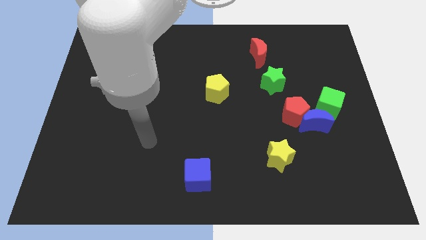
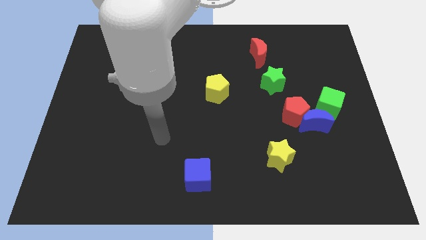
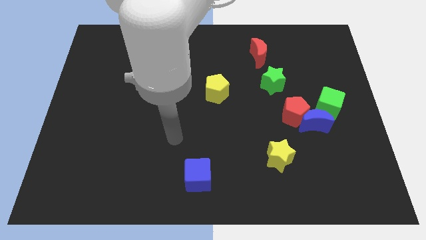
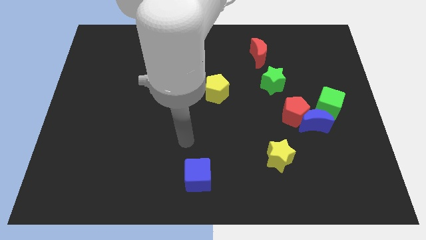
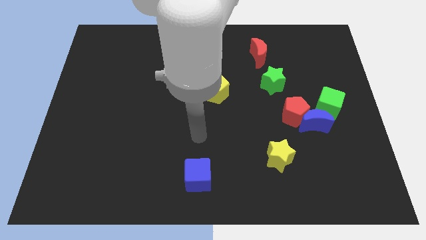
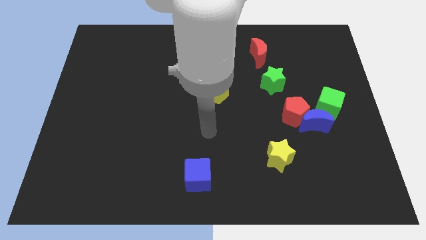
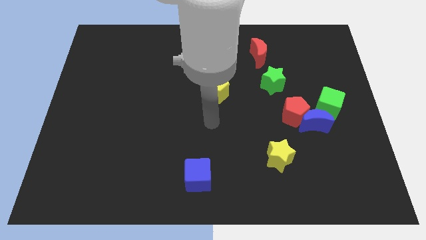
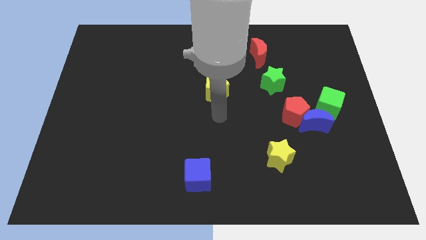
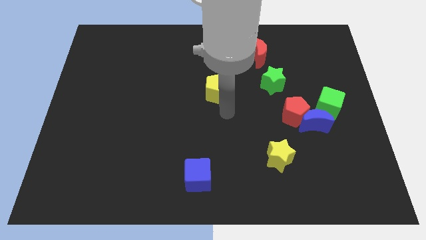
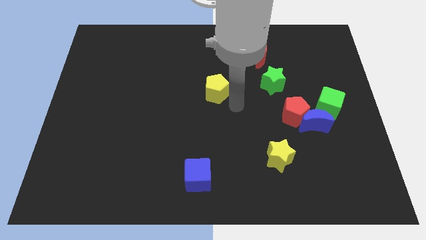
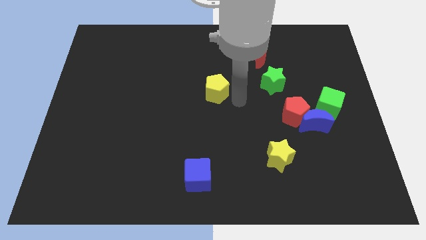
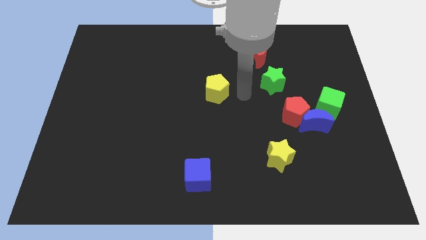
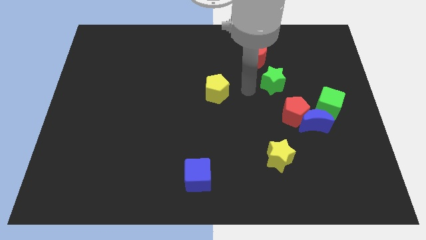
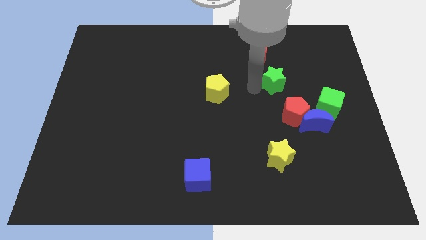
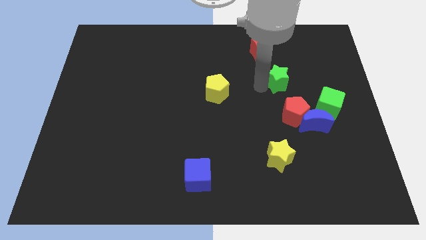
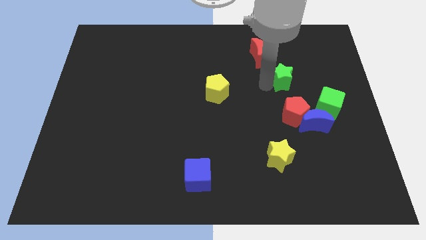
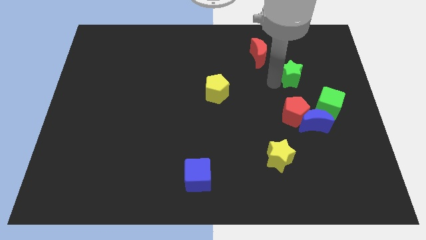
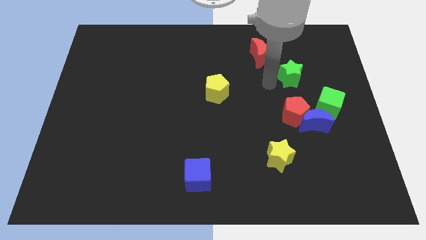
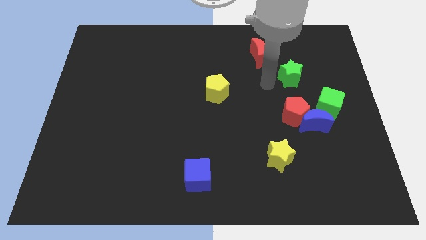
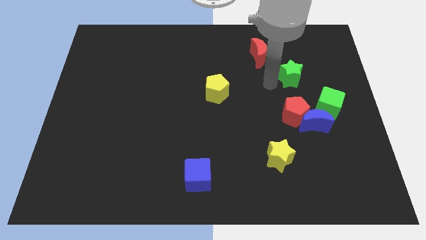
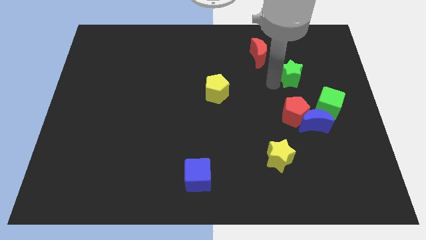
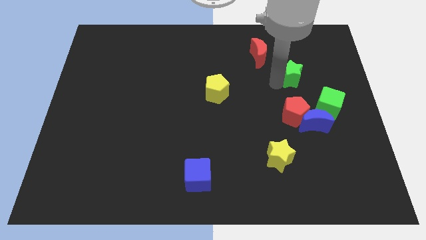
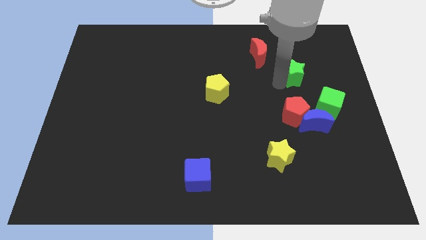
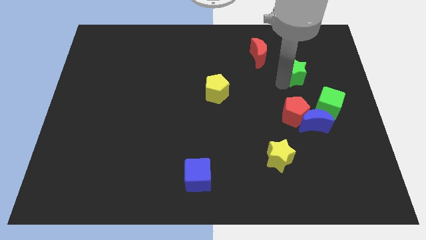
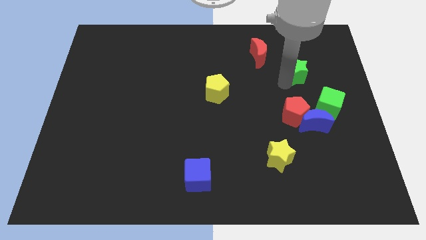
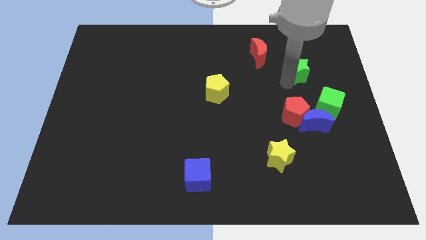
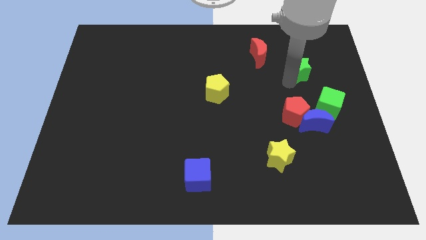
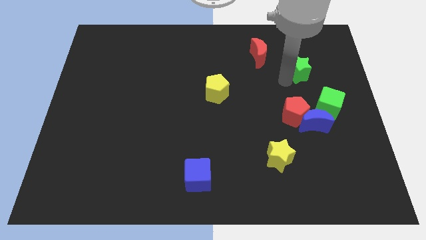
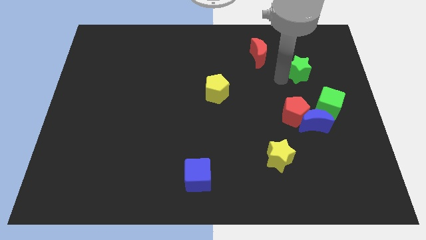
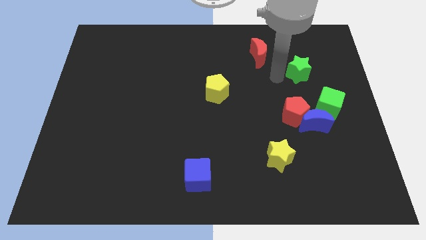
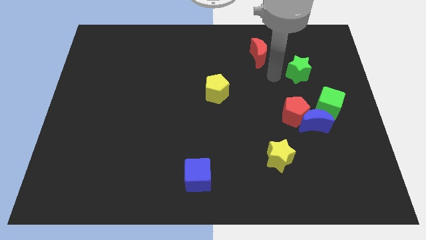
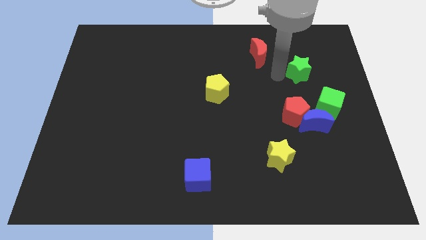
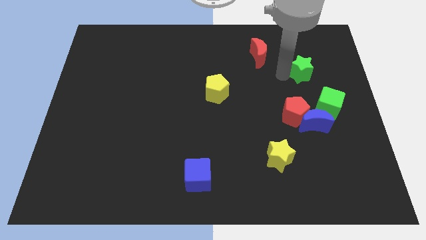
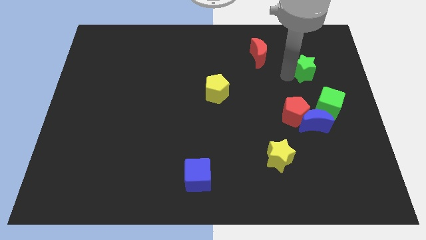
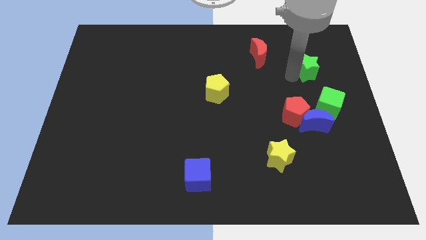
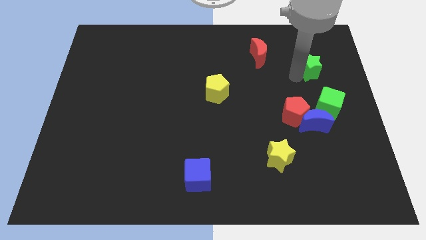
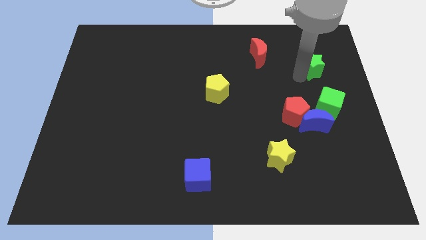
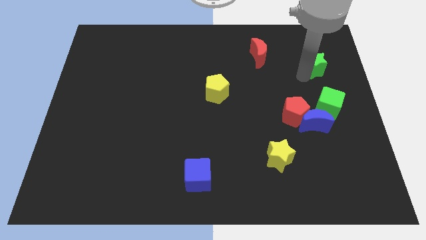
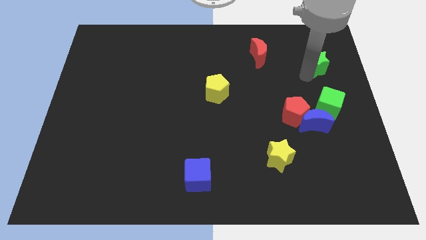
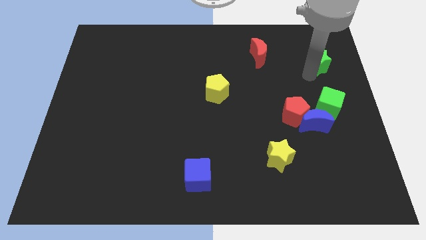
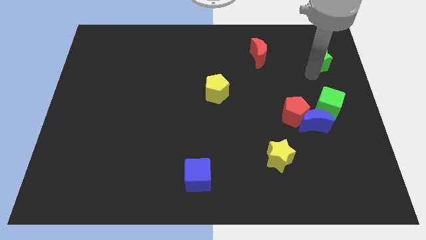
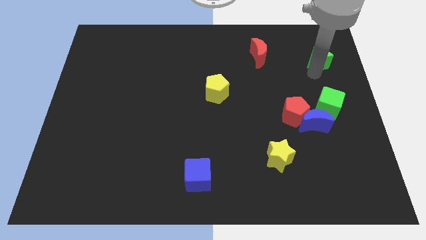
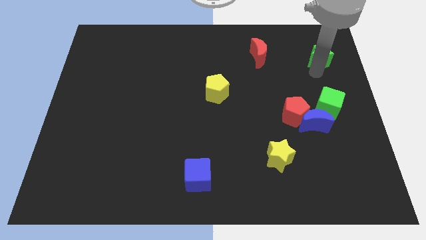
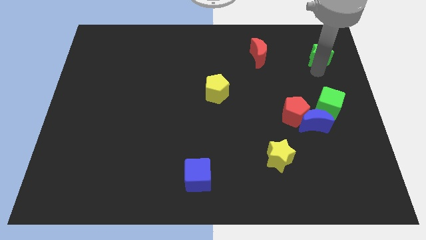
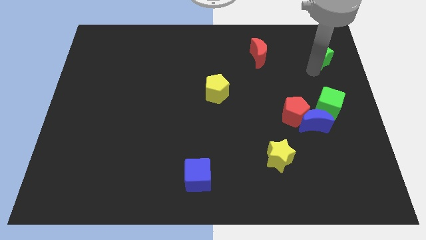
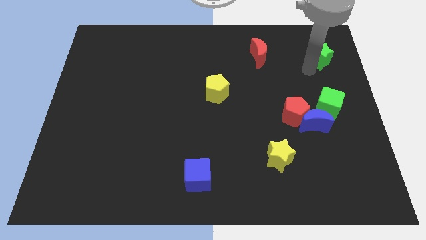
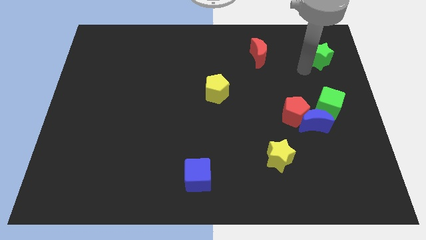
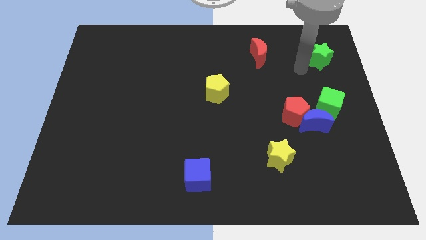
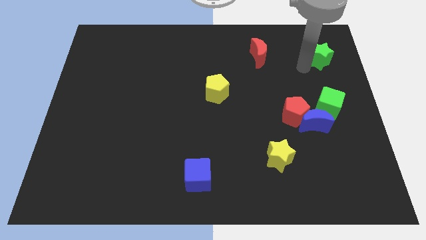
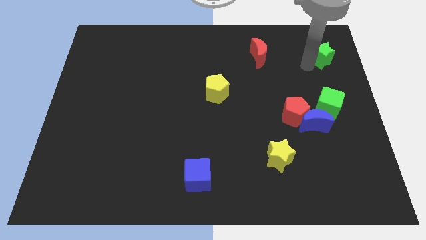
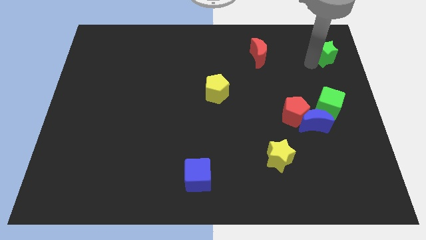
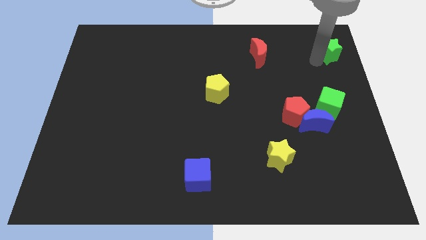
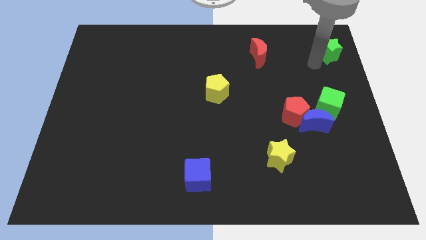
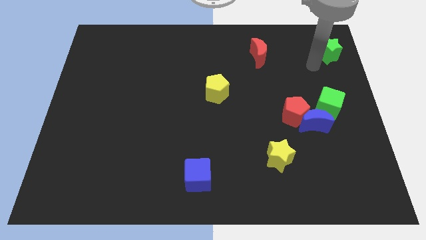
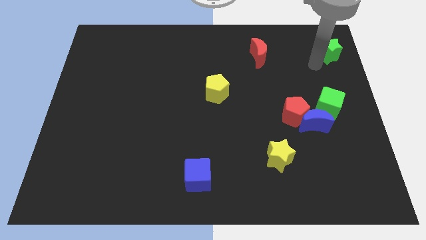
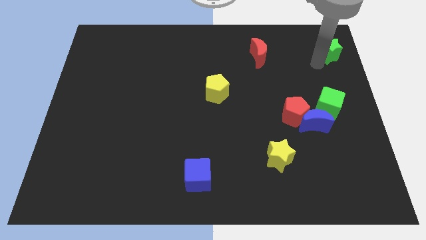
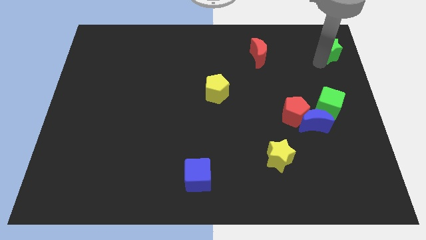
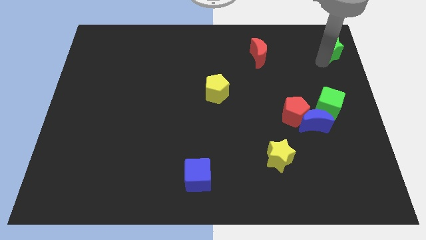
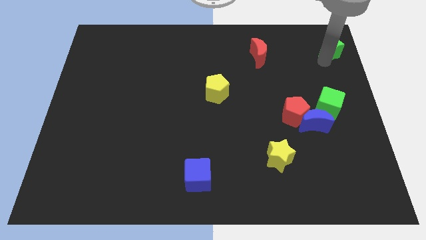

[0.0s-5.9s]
put the green star to the top right of the board
